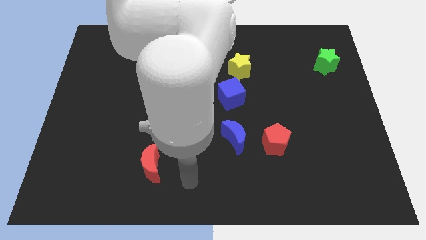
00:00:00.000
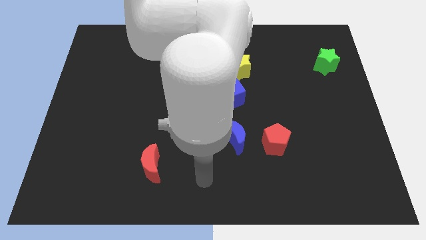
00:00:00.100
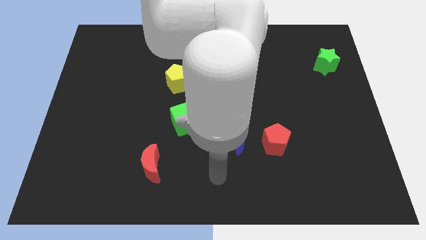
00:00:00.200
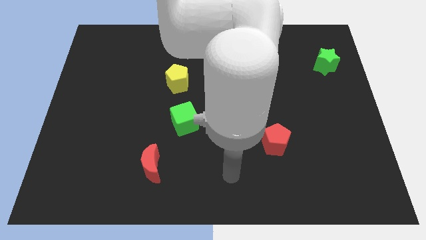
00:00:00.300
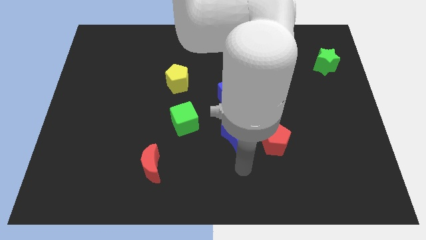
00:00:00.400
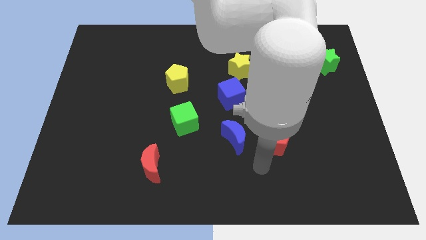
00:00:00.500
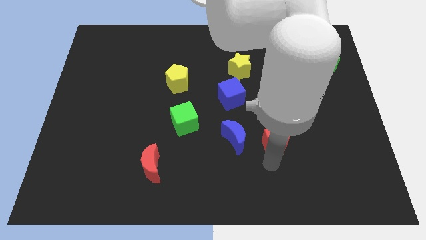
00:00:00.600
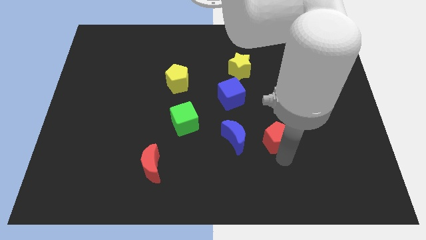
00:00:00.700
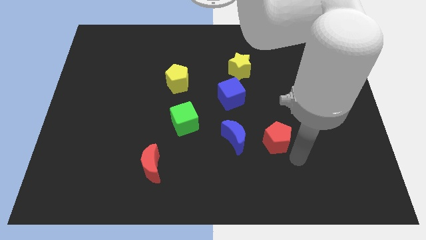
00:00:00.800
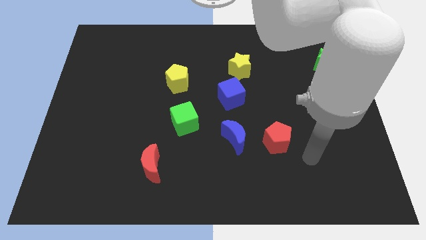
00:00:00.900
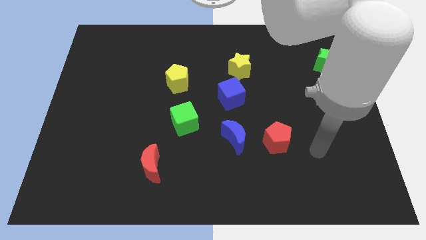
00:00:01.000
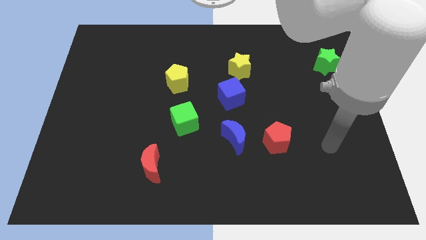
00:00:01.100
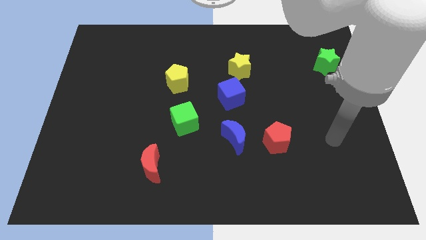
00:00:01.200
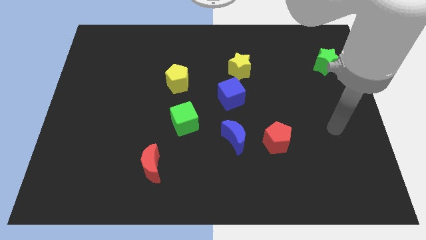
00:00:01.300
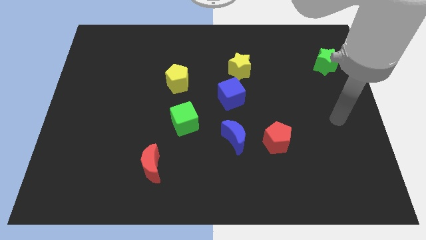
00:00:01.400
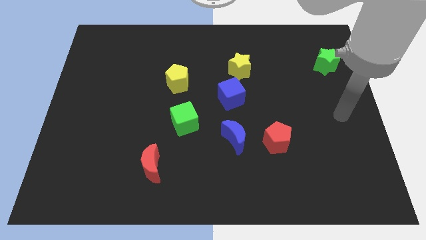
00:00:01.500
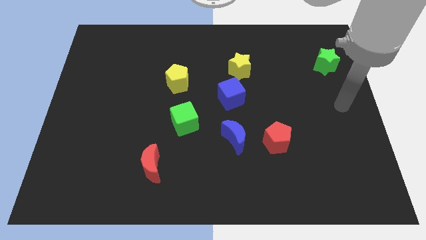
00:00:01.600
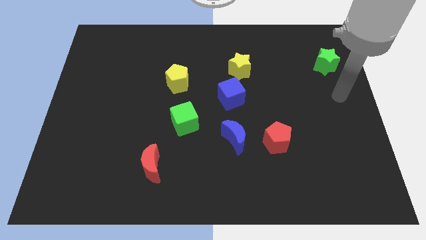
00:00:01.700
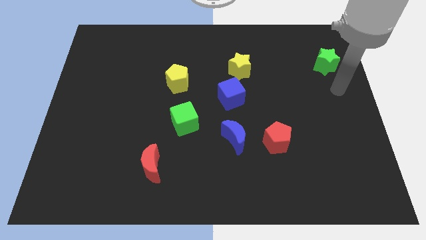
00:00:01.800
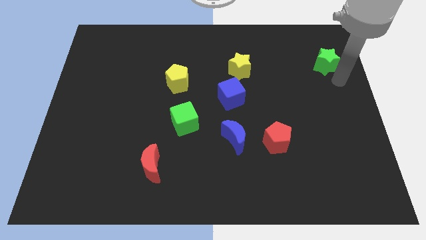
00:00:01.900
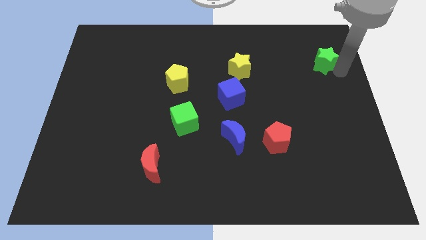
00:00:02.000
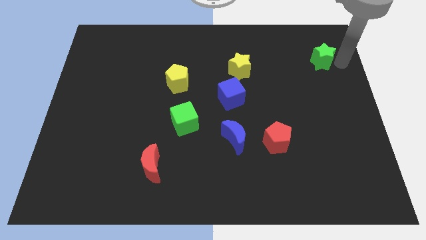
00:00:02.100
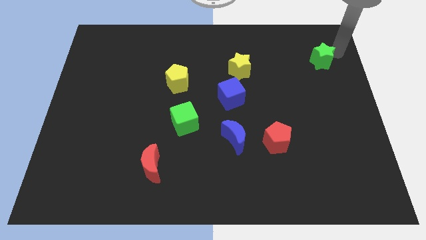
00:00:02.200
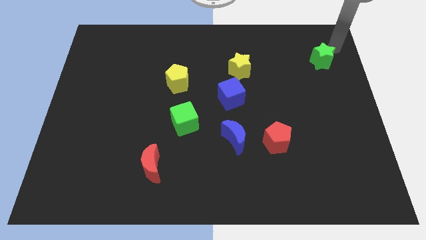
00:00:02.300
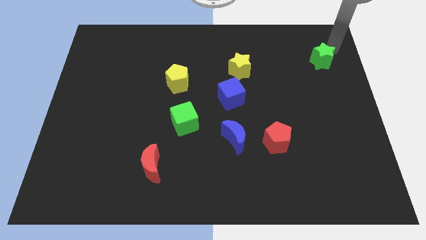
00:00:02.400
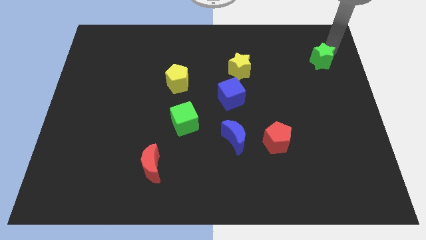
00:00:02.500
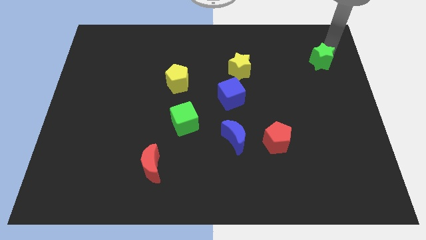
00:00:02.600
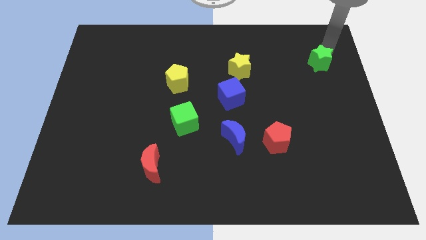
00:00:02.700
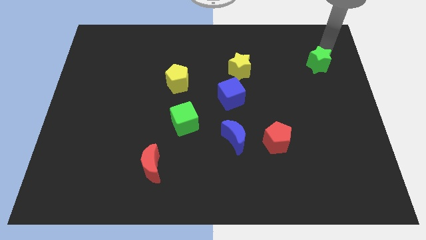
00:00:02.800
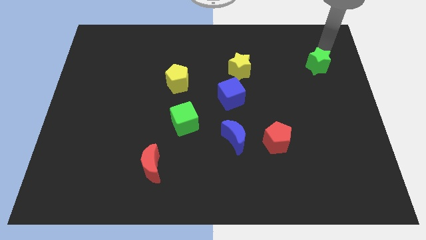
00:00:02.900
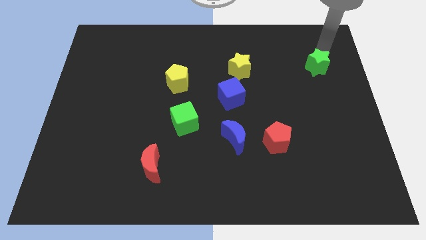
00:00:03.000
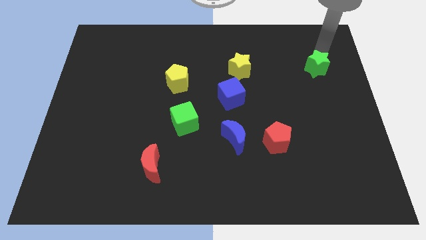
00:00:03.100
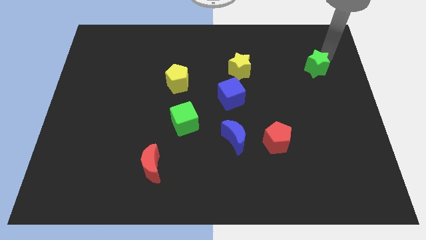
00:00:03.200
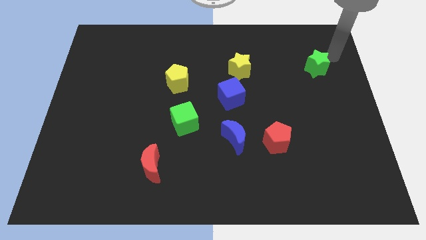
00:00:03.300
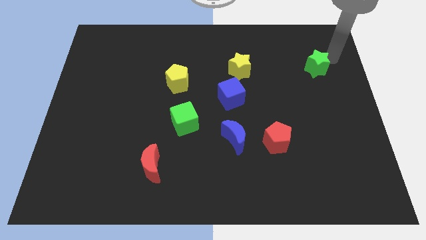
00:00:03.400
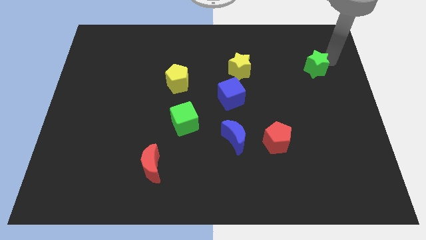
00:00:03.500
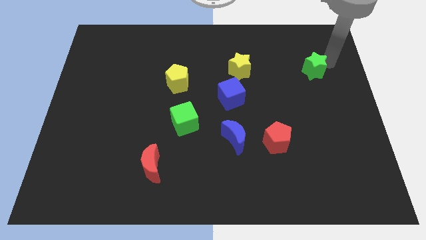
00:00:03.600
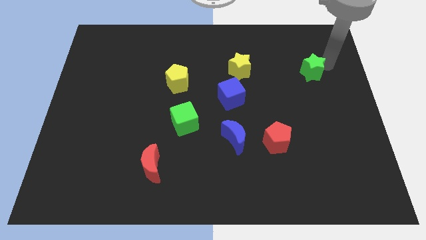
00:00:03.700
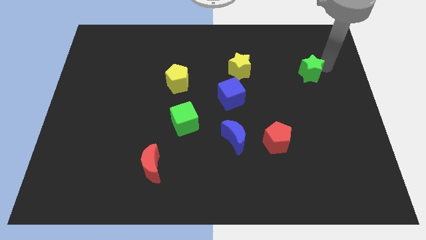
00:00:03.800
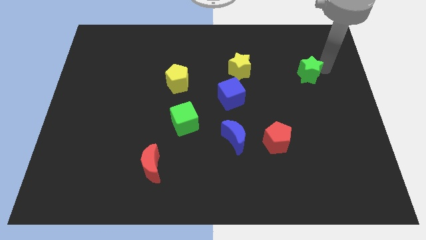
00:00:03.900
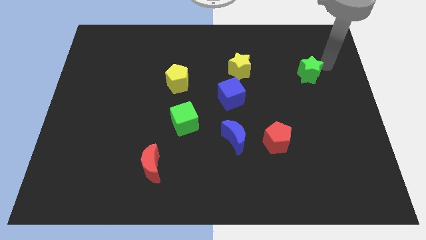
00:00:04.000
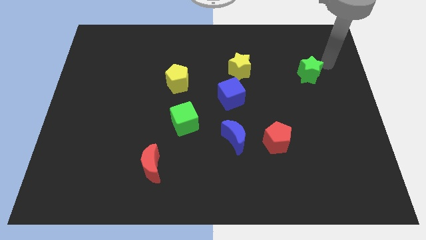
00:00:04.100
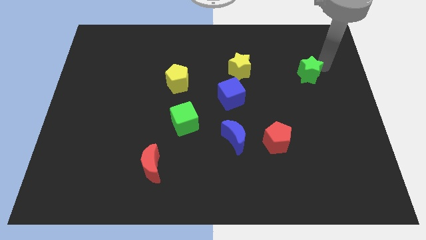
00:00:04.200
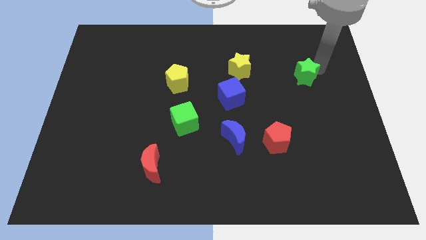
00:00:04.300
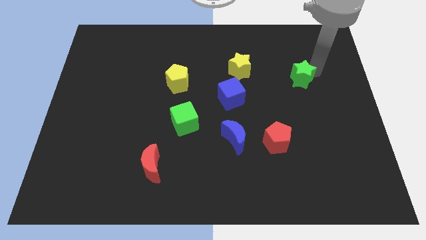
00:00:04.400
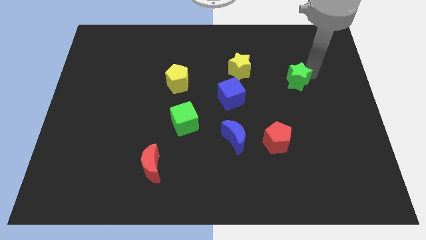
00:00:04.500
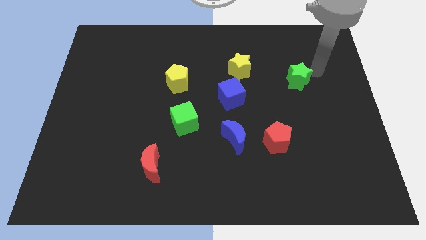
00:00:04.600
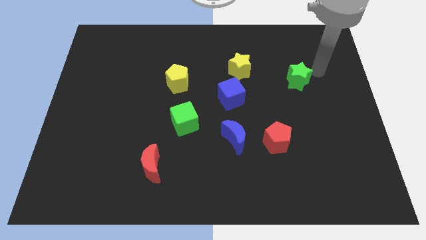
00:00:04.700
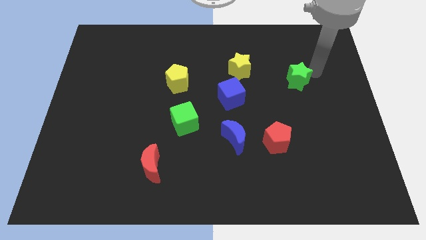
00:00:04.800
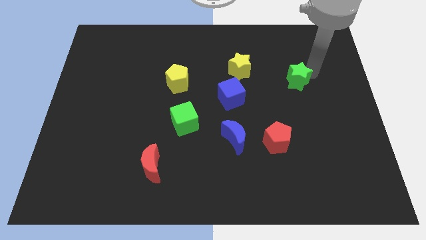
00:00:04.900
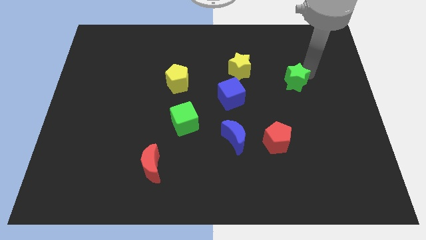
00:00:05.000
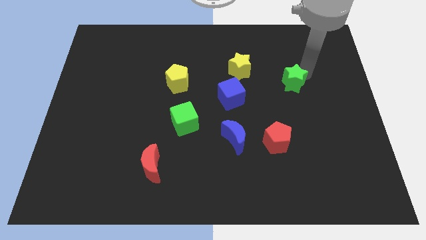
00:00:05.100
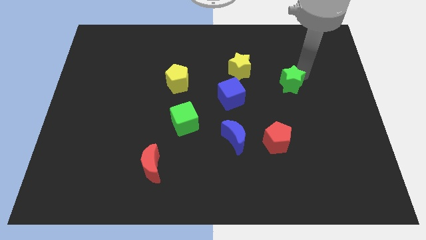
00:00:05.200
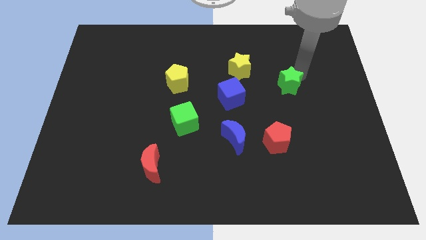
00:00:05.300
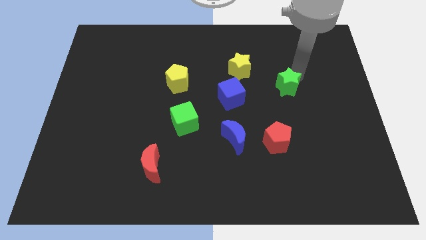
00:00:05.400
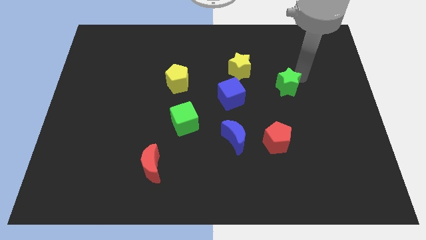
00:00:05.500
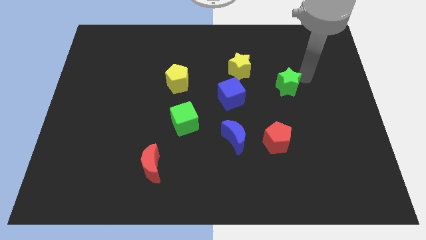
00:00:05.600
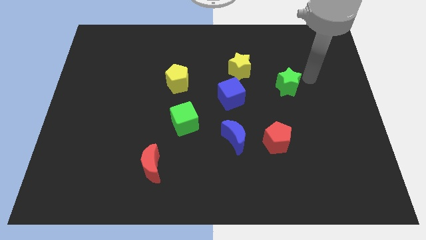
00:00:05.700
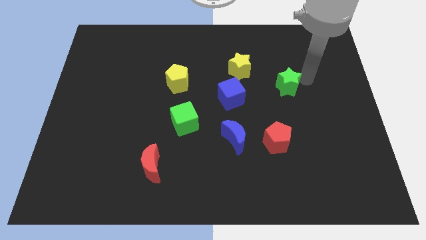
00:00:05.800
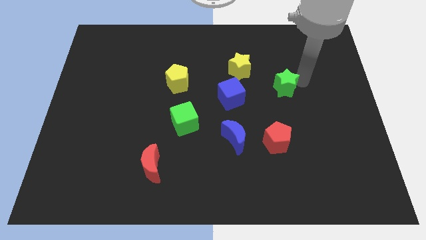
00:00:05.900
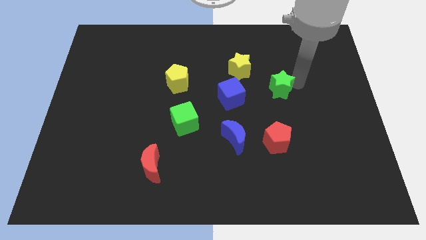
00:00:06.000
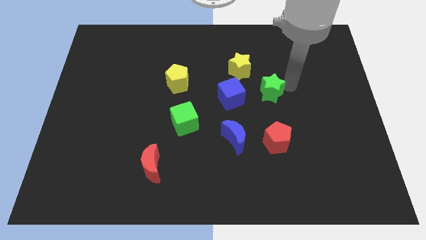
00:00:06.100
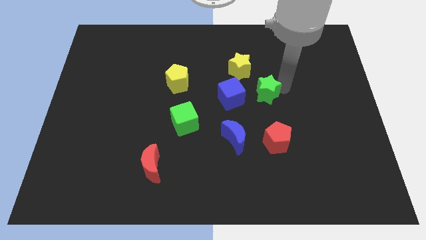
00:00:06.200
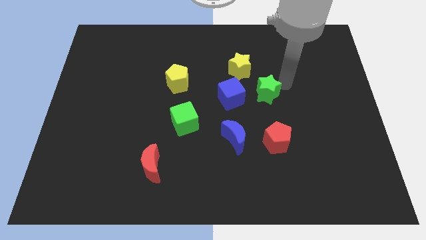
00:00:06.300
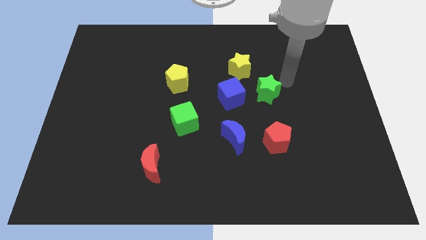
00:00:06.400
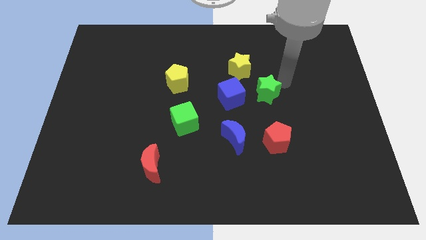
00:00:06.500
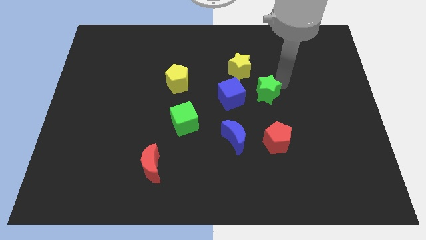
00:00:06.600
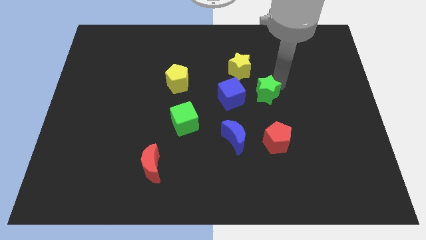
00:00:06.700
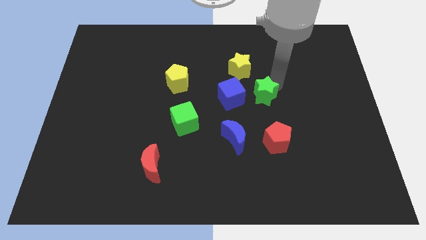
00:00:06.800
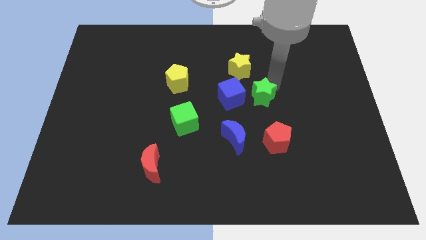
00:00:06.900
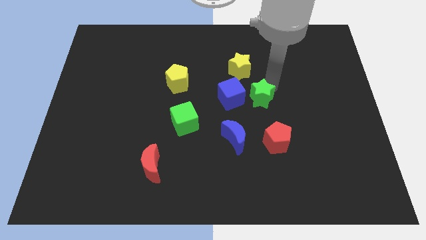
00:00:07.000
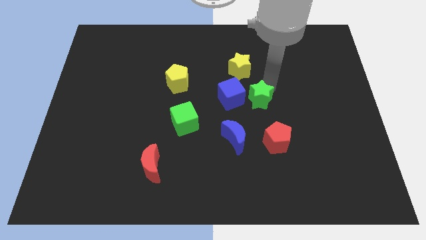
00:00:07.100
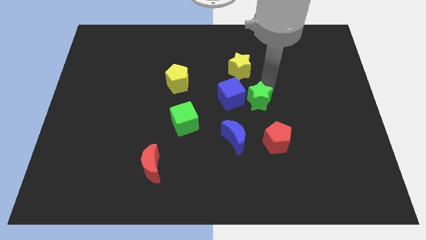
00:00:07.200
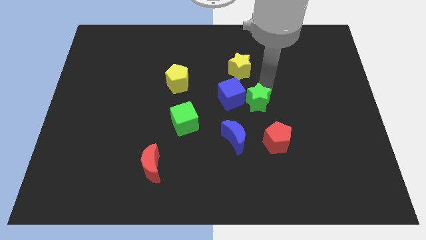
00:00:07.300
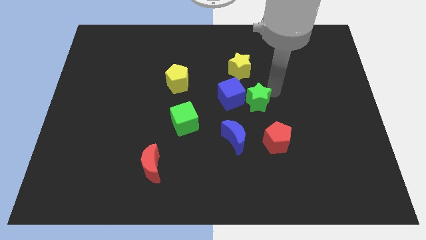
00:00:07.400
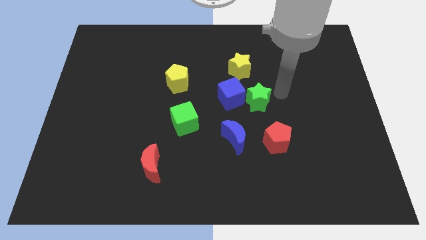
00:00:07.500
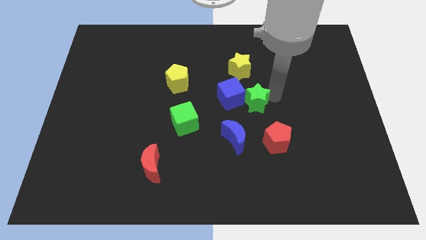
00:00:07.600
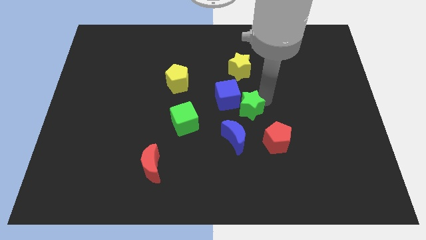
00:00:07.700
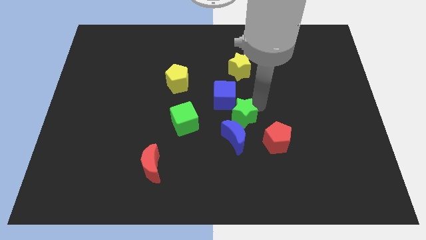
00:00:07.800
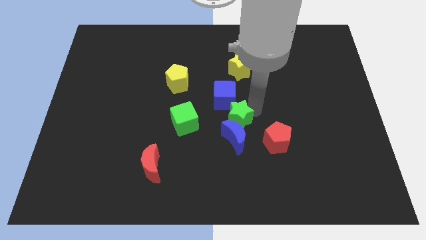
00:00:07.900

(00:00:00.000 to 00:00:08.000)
push the green star to the top left side of the blue moon

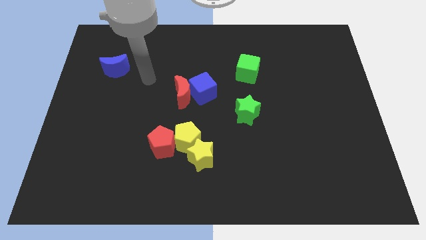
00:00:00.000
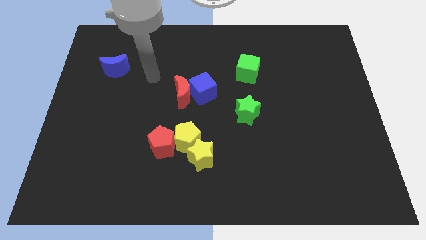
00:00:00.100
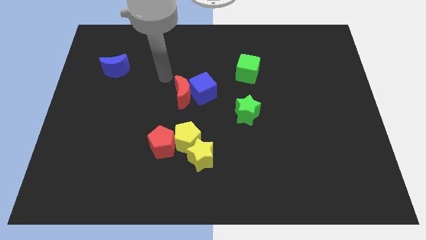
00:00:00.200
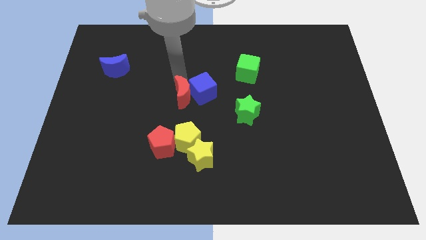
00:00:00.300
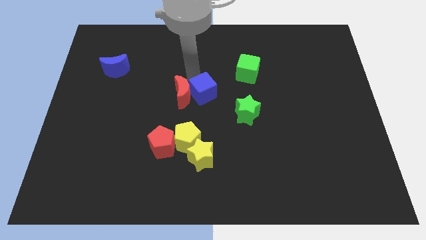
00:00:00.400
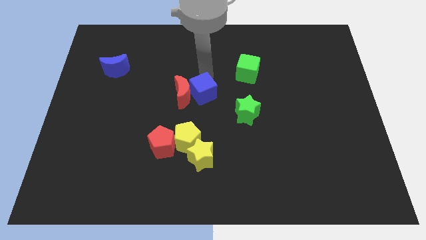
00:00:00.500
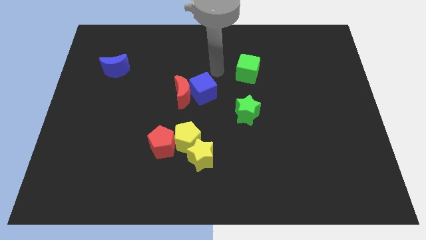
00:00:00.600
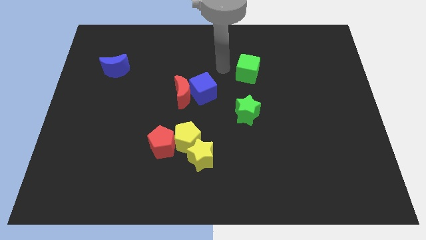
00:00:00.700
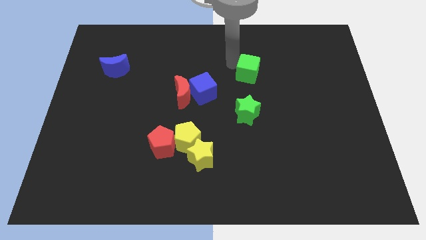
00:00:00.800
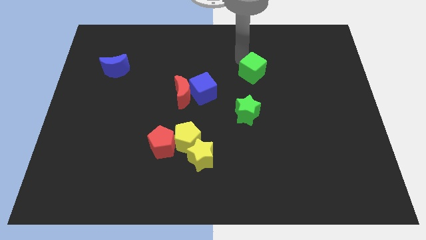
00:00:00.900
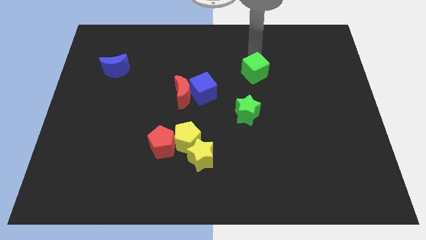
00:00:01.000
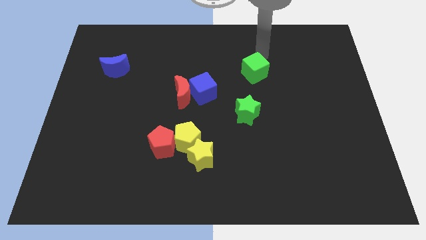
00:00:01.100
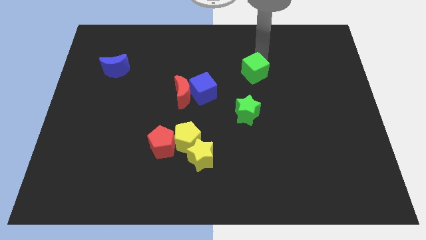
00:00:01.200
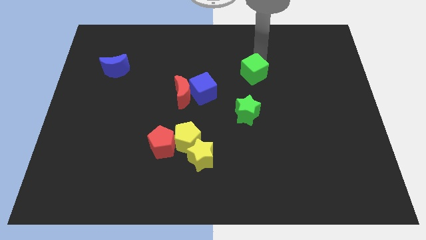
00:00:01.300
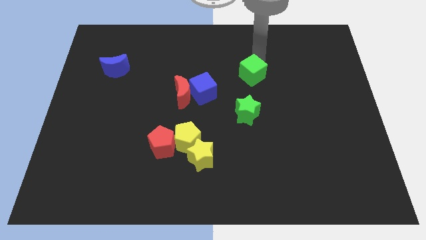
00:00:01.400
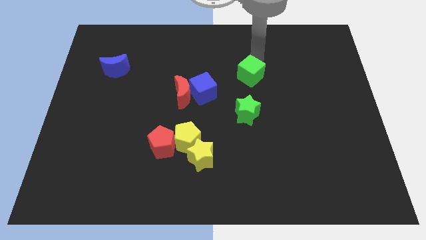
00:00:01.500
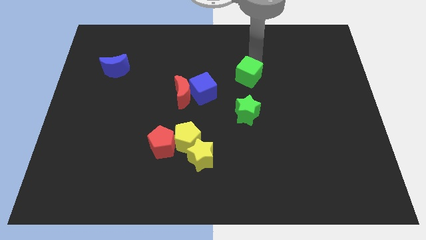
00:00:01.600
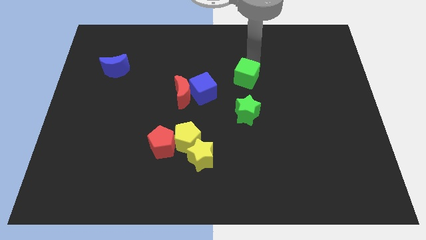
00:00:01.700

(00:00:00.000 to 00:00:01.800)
put the green cube to the right of the blue cube
